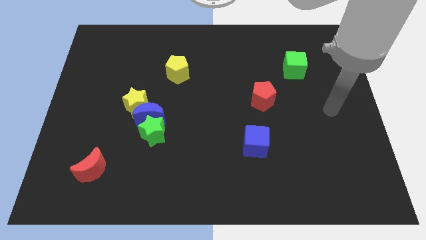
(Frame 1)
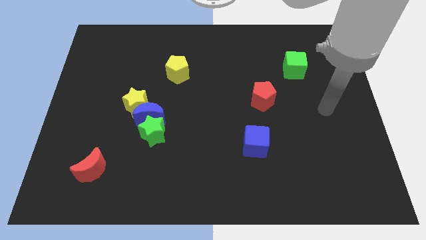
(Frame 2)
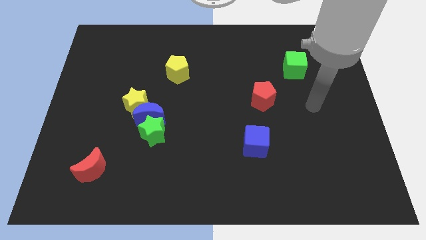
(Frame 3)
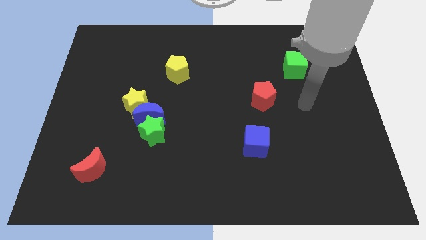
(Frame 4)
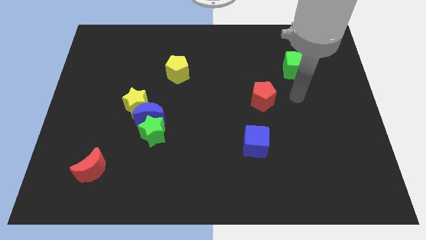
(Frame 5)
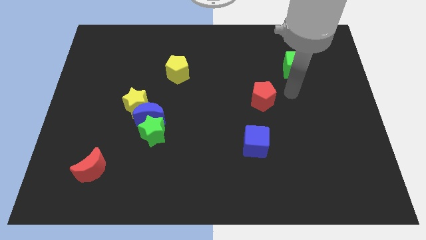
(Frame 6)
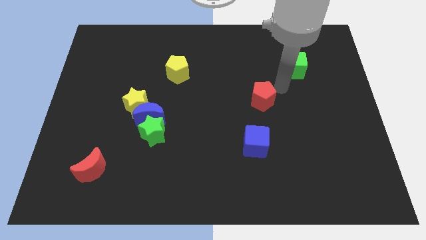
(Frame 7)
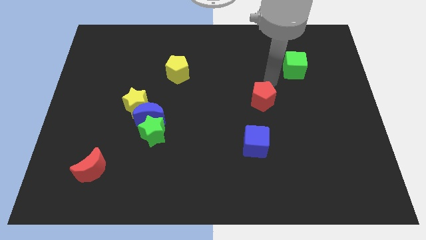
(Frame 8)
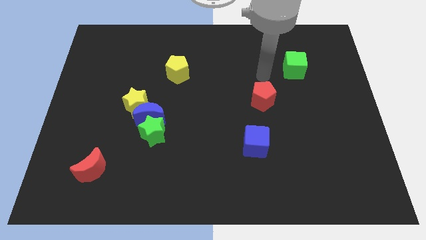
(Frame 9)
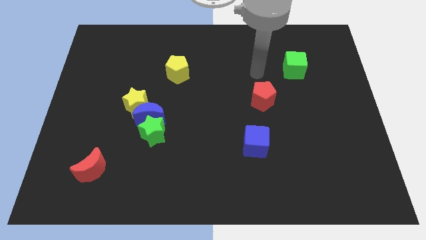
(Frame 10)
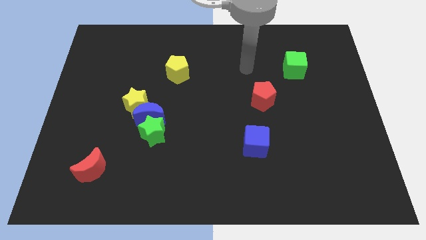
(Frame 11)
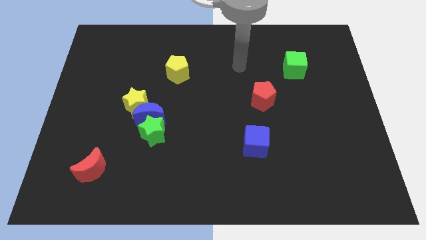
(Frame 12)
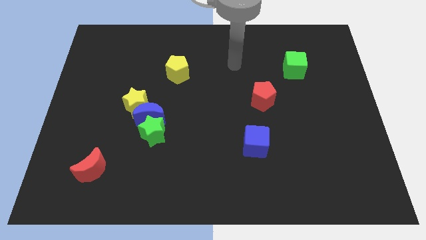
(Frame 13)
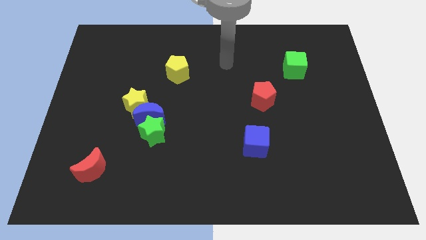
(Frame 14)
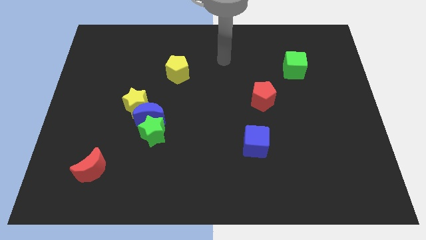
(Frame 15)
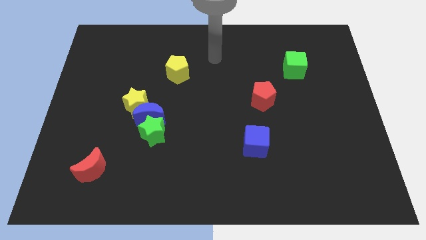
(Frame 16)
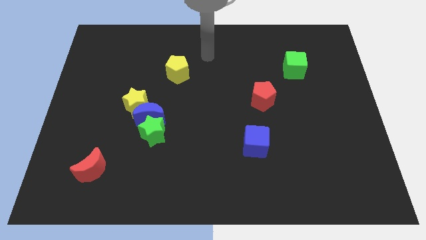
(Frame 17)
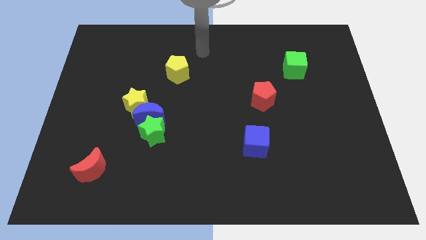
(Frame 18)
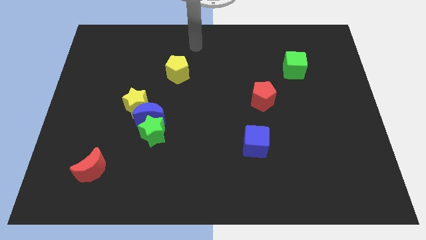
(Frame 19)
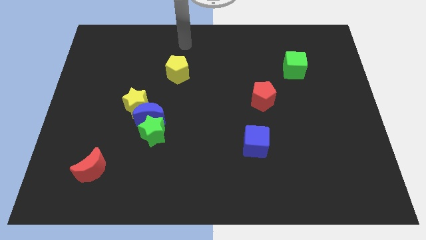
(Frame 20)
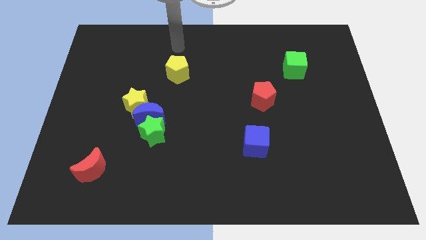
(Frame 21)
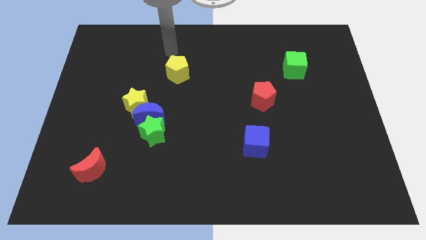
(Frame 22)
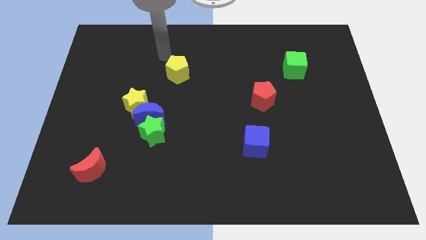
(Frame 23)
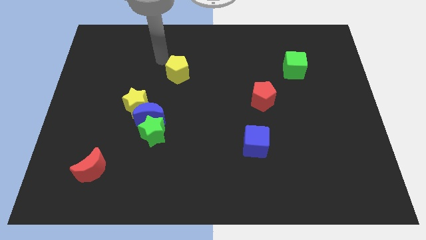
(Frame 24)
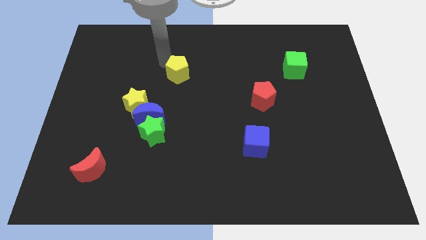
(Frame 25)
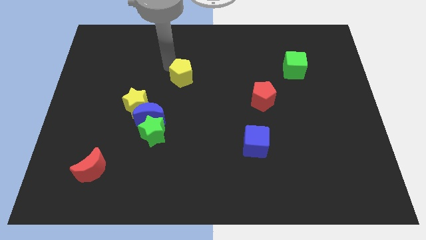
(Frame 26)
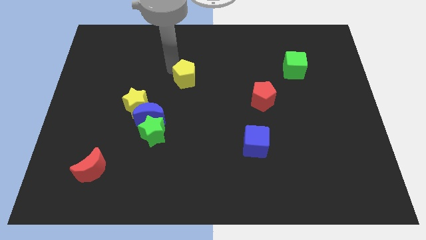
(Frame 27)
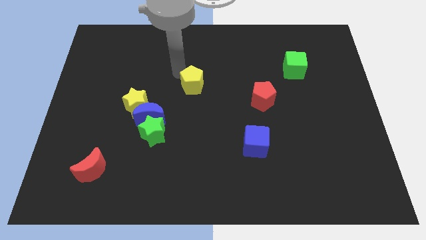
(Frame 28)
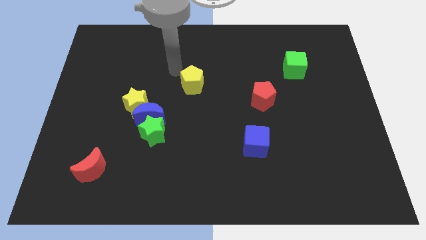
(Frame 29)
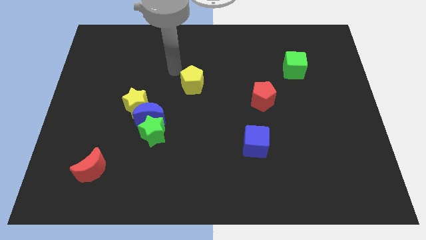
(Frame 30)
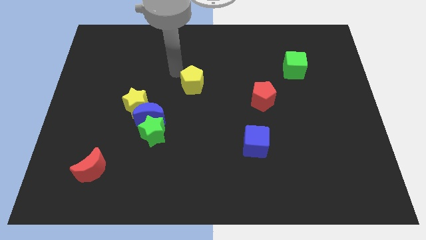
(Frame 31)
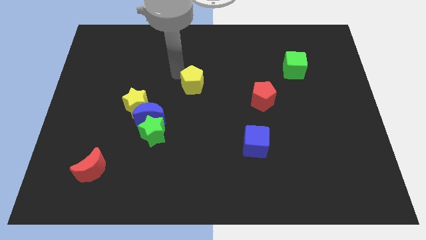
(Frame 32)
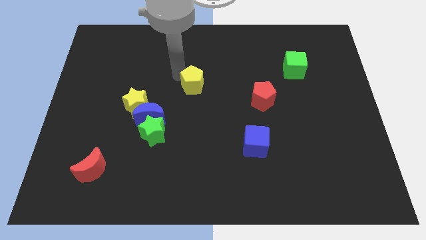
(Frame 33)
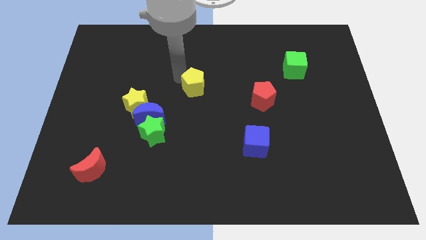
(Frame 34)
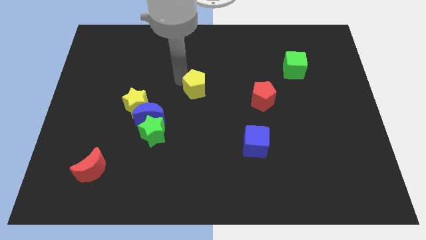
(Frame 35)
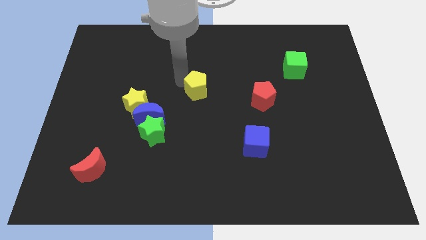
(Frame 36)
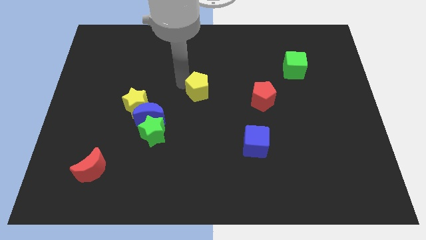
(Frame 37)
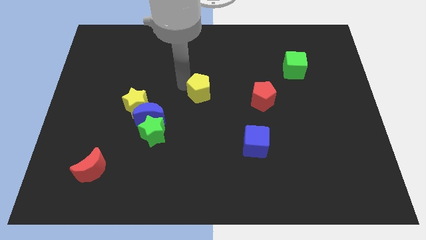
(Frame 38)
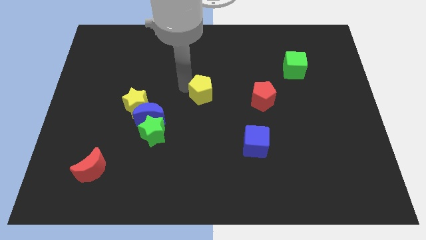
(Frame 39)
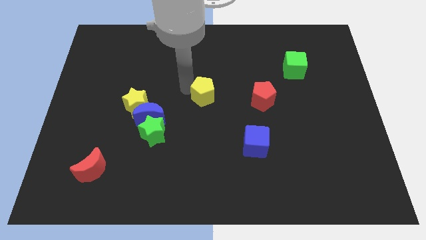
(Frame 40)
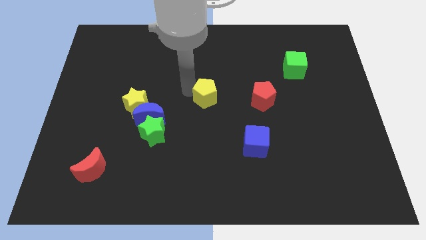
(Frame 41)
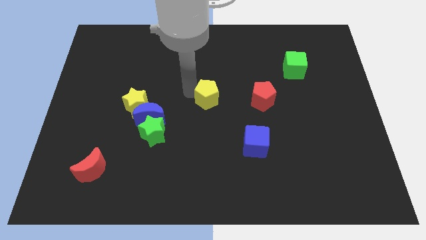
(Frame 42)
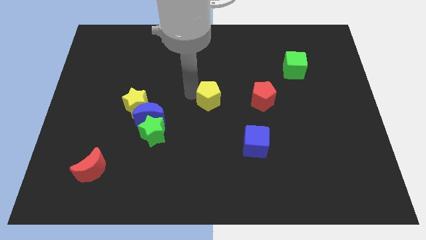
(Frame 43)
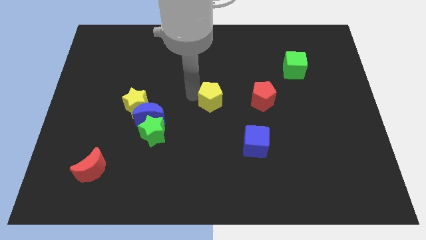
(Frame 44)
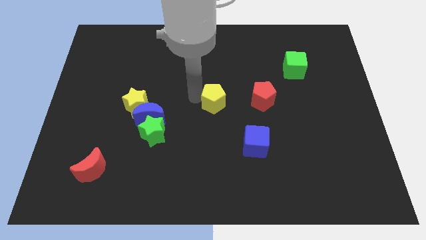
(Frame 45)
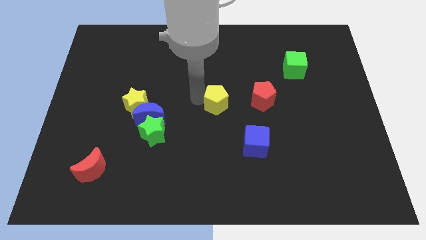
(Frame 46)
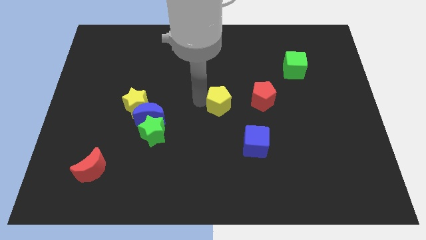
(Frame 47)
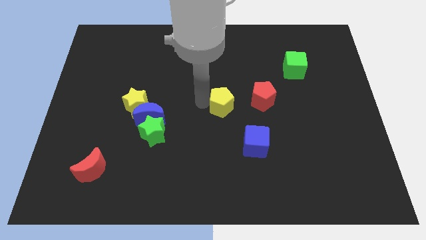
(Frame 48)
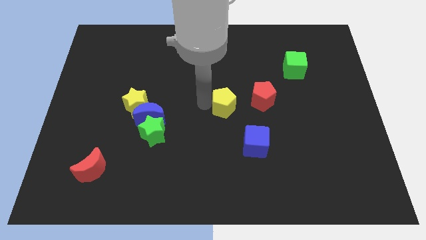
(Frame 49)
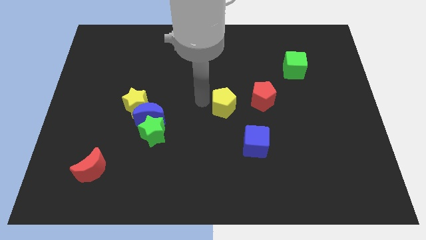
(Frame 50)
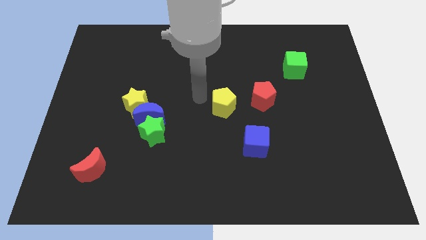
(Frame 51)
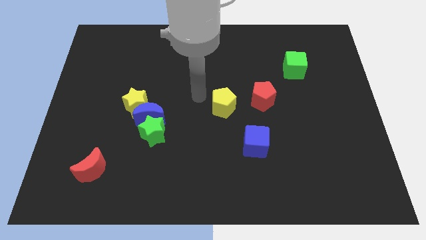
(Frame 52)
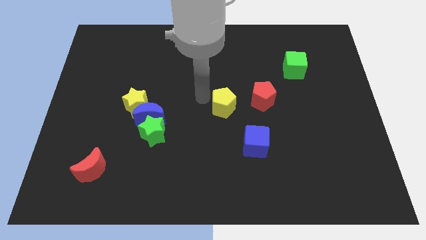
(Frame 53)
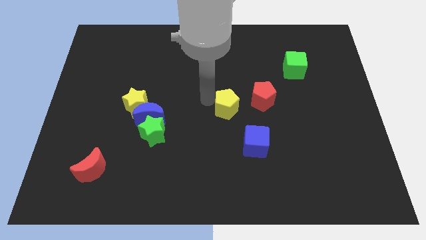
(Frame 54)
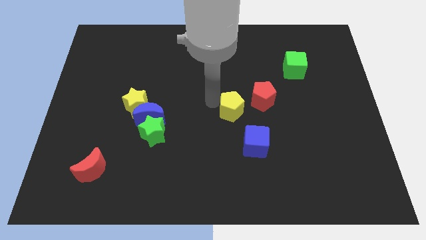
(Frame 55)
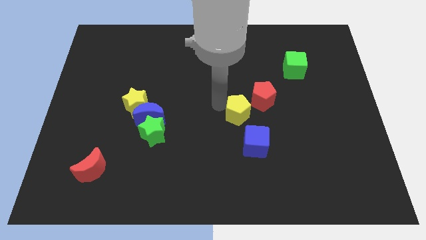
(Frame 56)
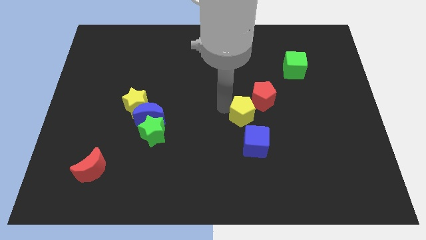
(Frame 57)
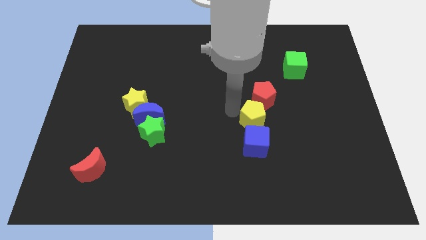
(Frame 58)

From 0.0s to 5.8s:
slide the yellow pentagon diagonally up and to the right of the blue cube

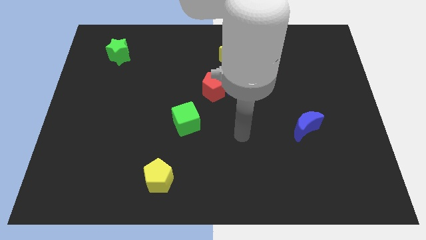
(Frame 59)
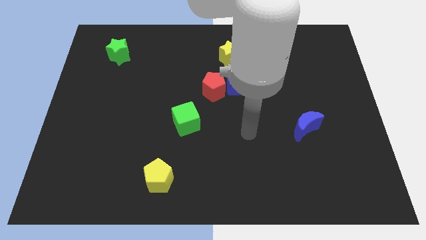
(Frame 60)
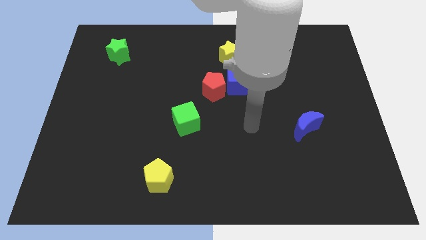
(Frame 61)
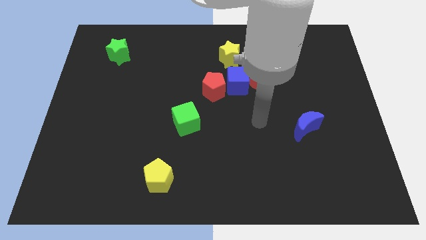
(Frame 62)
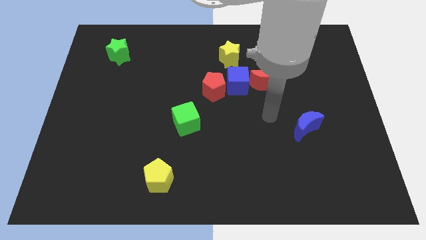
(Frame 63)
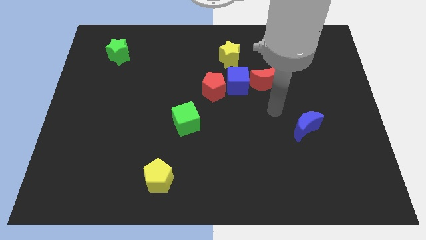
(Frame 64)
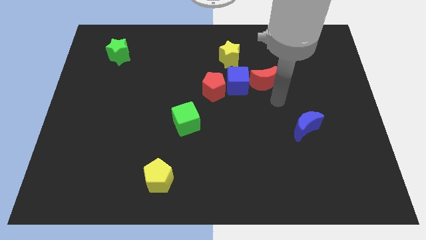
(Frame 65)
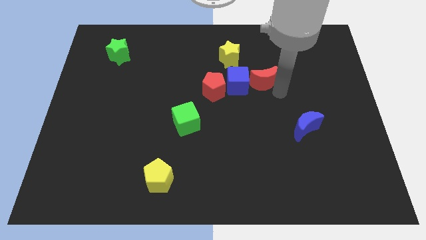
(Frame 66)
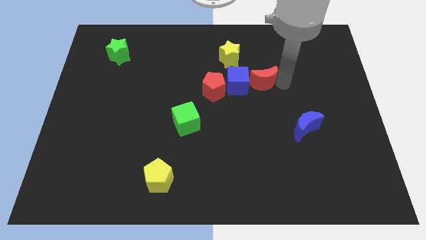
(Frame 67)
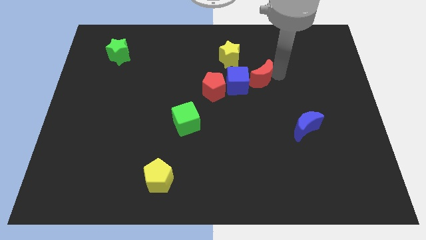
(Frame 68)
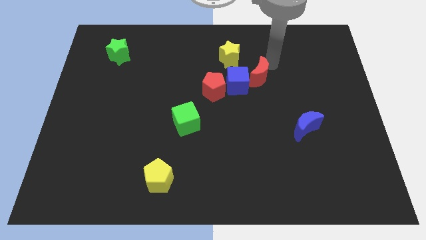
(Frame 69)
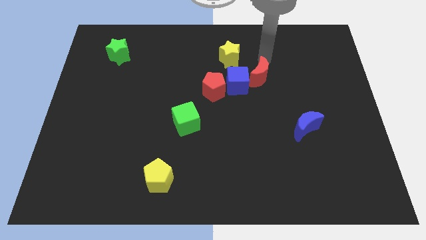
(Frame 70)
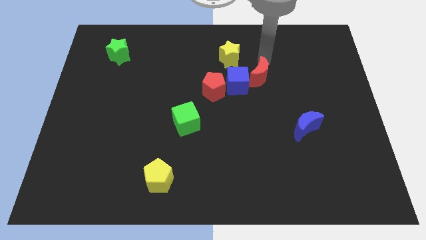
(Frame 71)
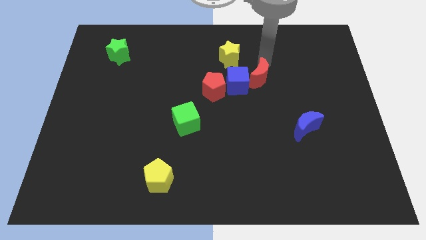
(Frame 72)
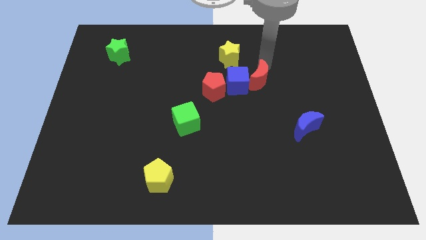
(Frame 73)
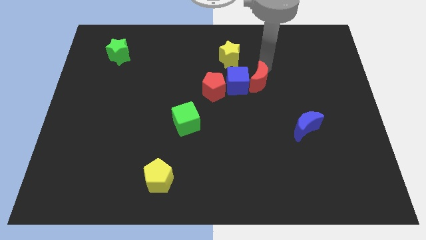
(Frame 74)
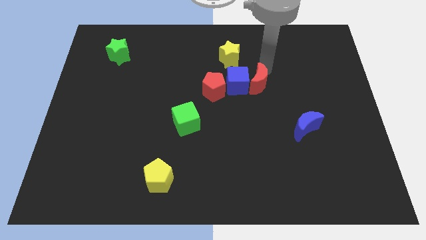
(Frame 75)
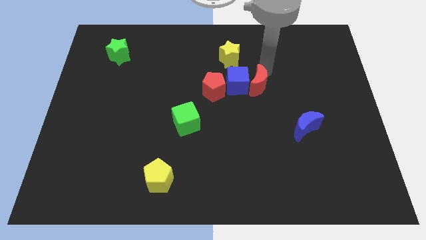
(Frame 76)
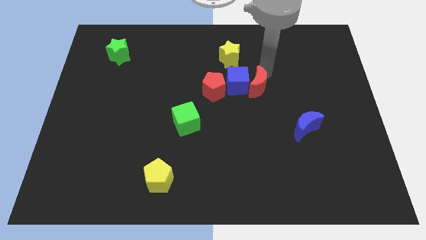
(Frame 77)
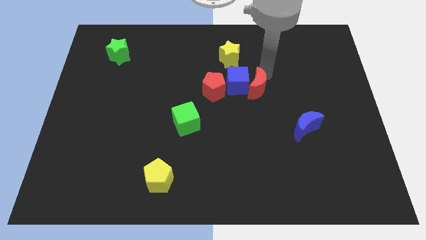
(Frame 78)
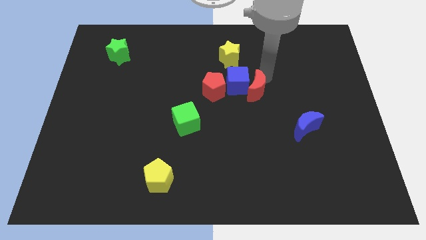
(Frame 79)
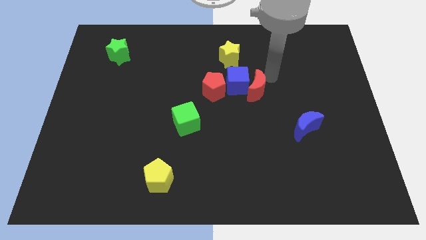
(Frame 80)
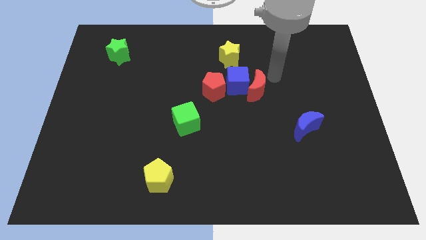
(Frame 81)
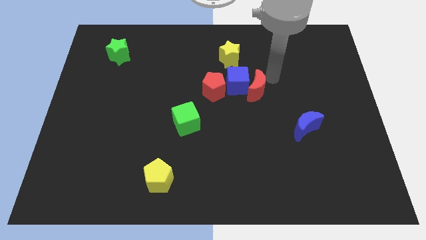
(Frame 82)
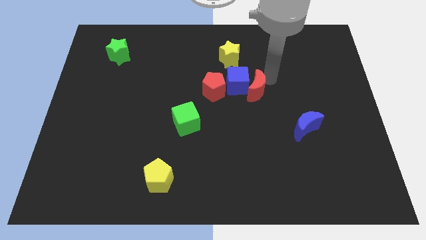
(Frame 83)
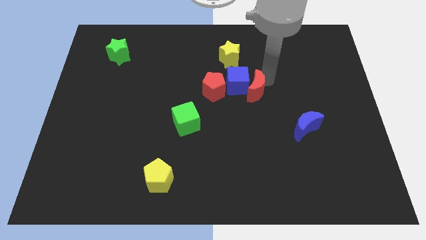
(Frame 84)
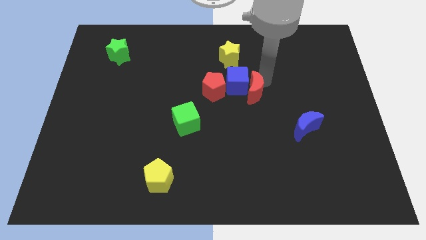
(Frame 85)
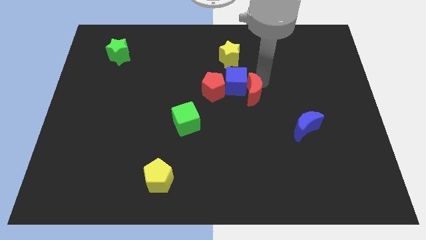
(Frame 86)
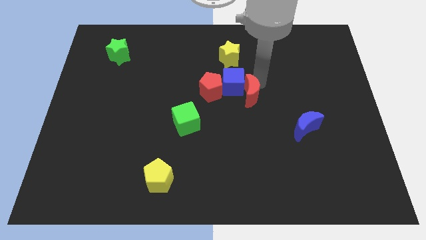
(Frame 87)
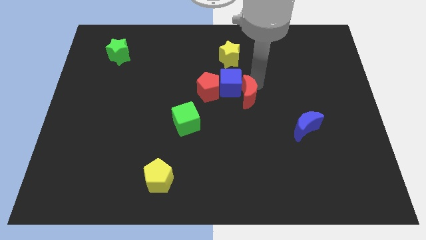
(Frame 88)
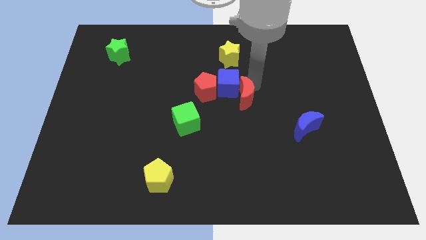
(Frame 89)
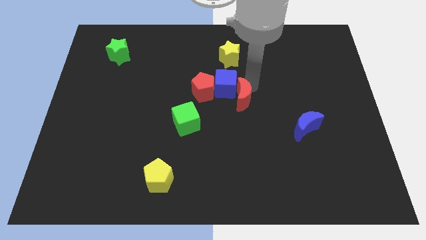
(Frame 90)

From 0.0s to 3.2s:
slide the red moon to the bottom right of the red pentagon
